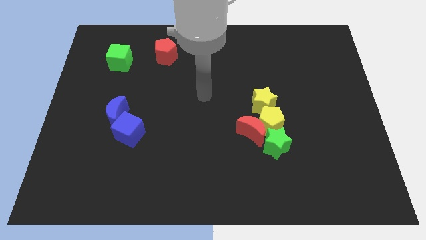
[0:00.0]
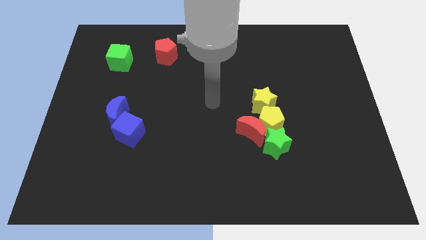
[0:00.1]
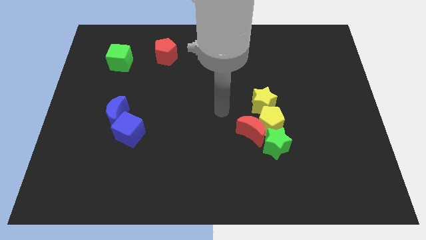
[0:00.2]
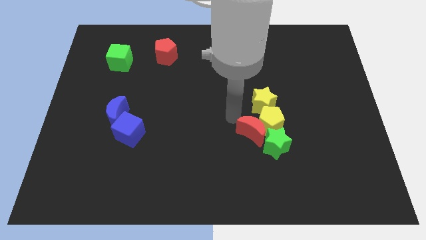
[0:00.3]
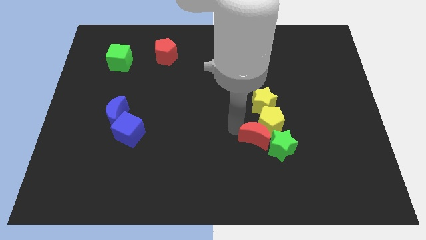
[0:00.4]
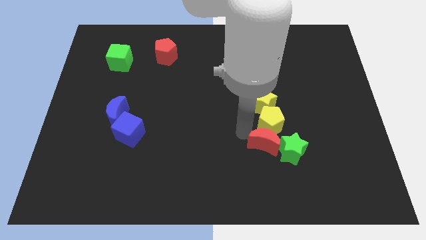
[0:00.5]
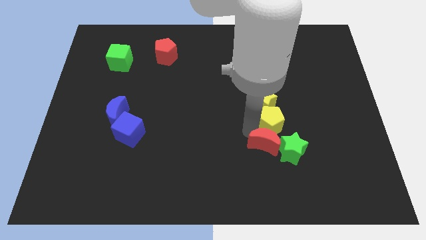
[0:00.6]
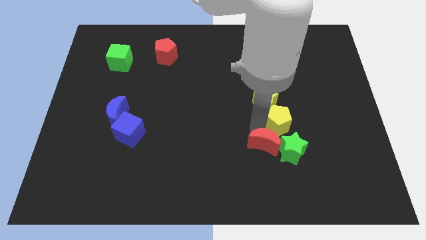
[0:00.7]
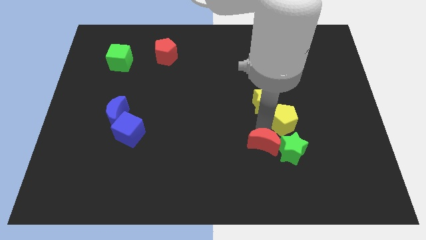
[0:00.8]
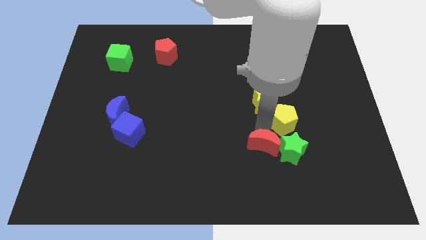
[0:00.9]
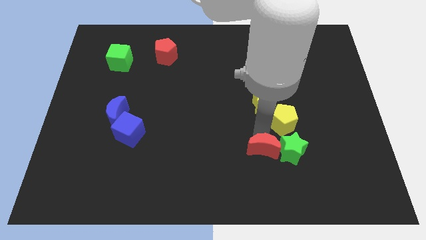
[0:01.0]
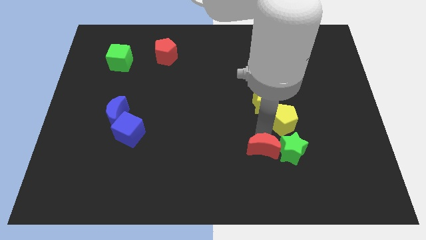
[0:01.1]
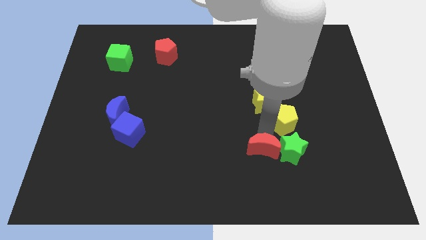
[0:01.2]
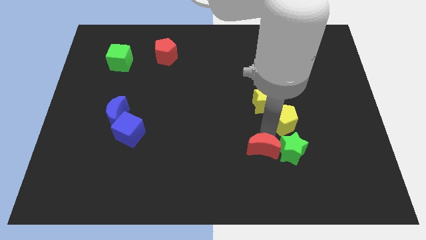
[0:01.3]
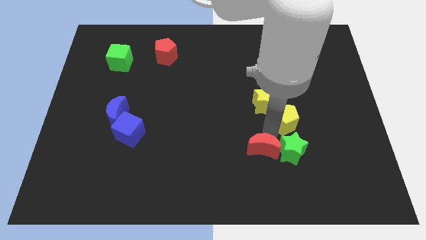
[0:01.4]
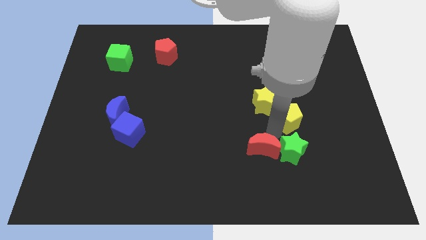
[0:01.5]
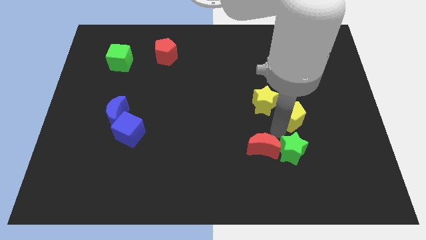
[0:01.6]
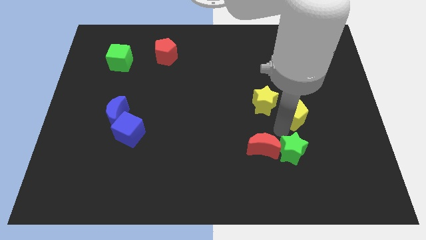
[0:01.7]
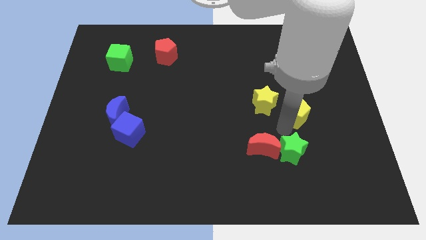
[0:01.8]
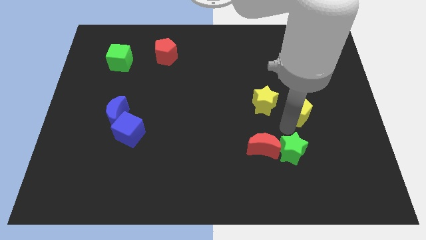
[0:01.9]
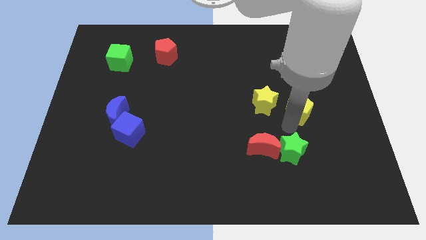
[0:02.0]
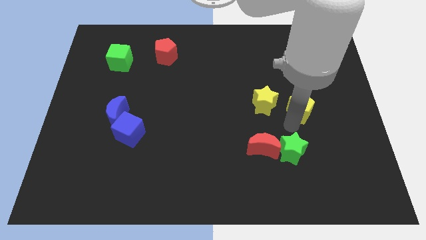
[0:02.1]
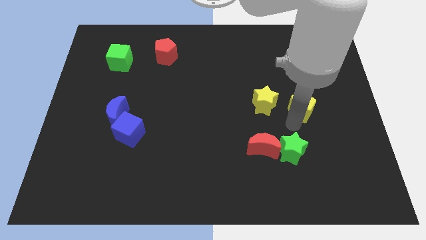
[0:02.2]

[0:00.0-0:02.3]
pull the yellow pentagon apart from the group of blocks

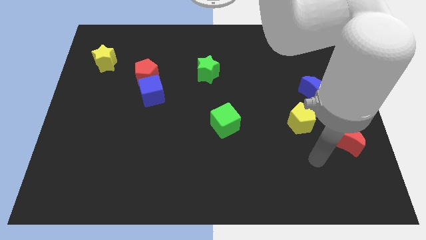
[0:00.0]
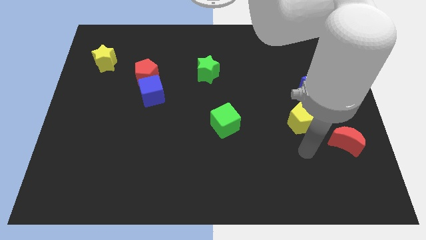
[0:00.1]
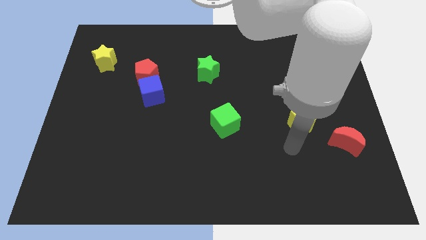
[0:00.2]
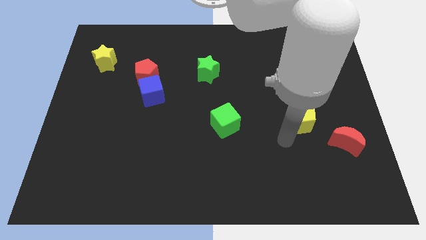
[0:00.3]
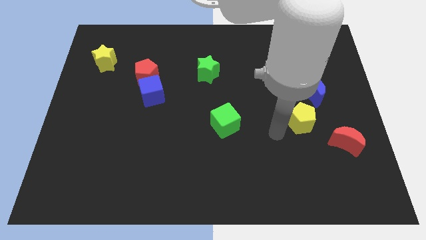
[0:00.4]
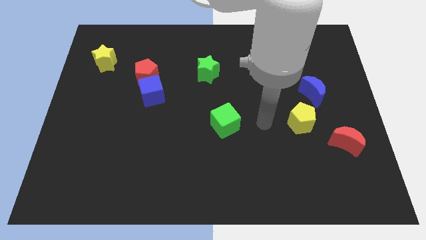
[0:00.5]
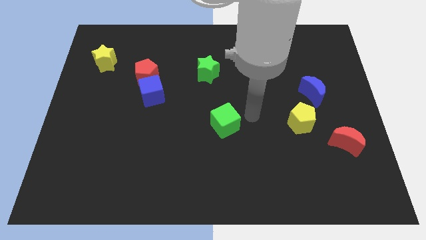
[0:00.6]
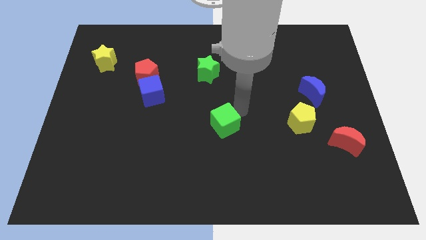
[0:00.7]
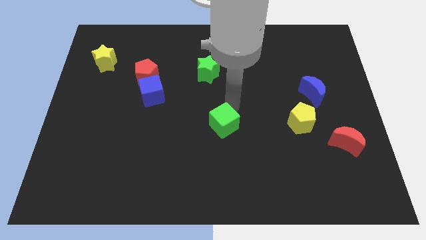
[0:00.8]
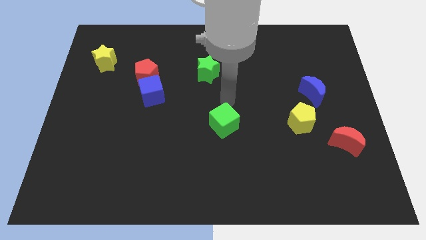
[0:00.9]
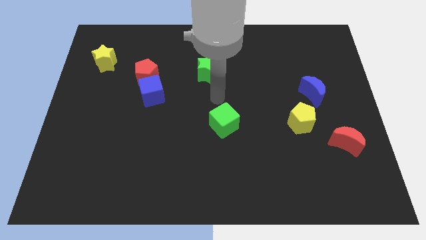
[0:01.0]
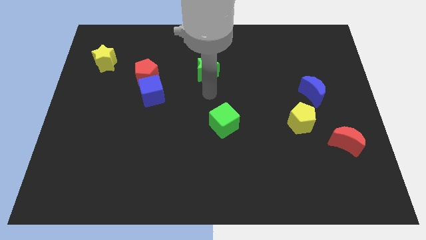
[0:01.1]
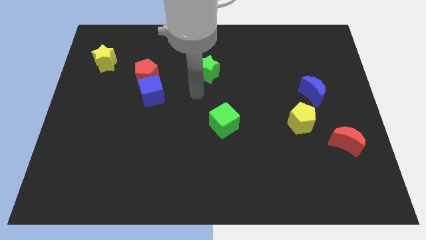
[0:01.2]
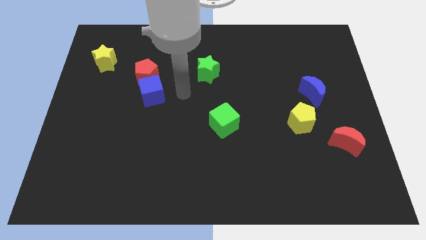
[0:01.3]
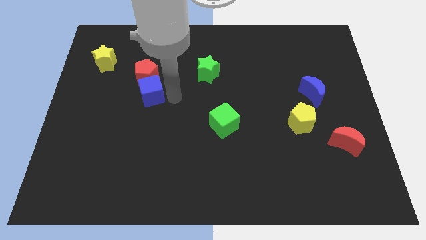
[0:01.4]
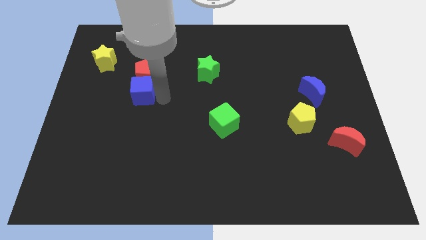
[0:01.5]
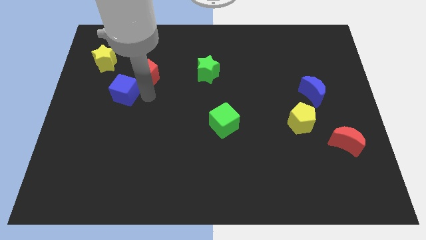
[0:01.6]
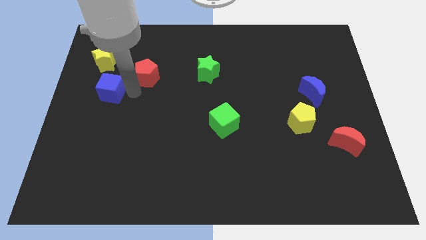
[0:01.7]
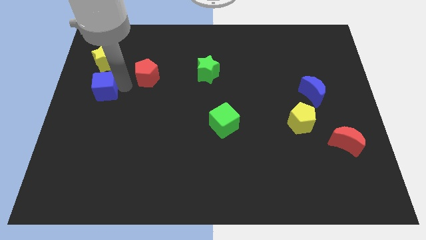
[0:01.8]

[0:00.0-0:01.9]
move the red pentagon away from the blue cube

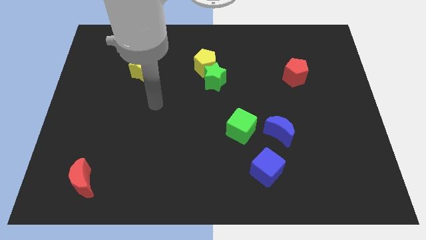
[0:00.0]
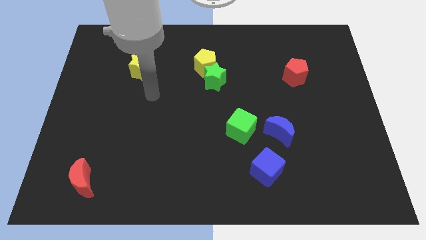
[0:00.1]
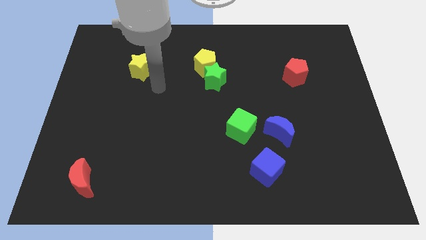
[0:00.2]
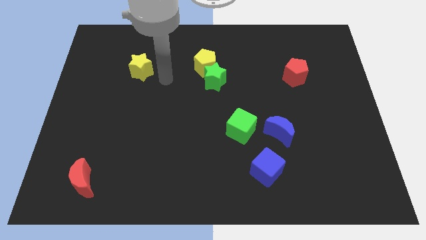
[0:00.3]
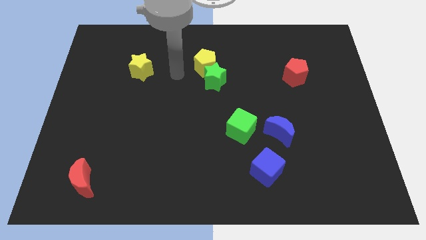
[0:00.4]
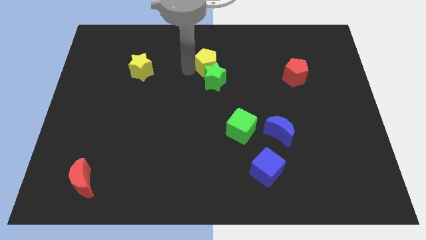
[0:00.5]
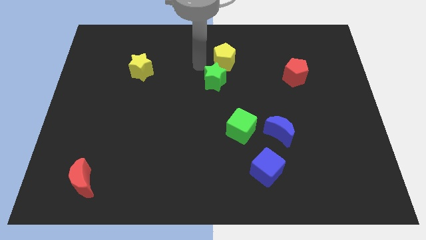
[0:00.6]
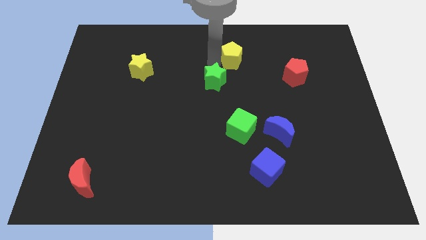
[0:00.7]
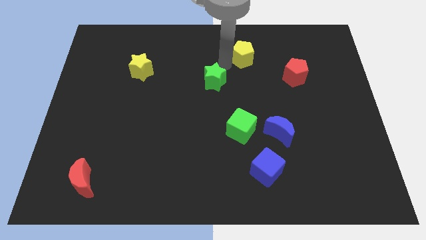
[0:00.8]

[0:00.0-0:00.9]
move the green star away from the yellow pentagon

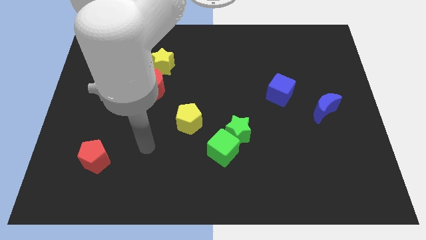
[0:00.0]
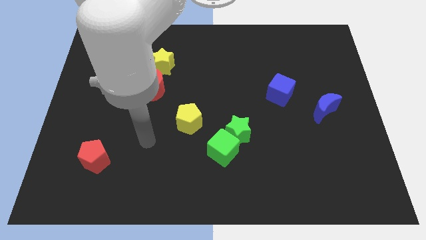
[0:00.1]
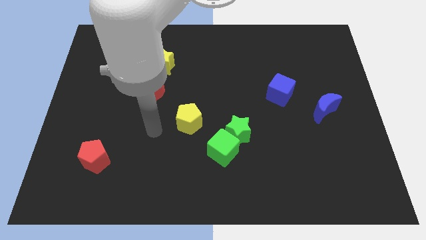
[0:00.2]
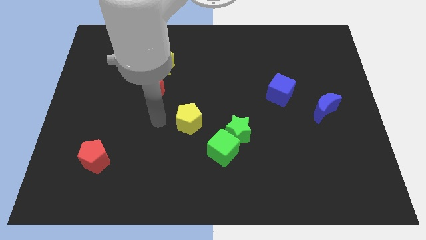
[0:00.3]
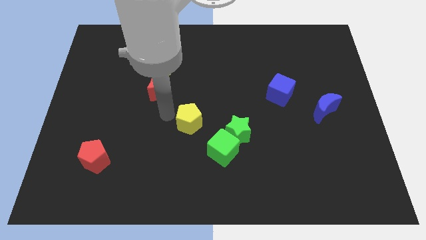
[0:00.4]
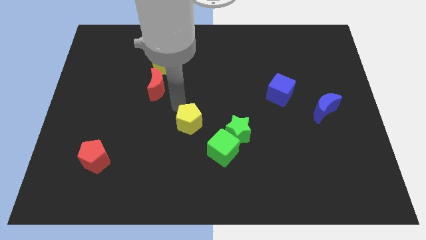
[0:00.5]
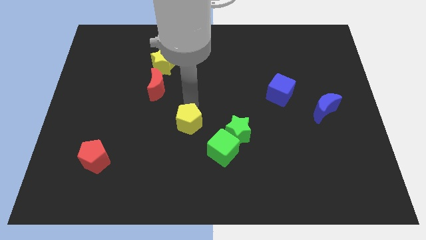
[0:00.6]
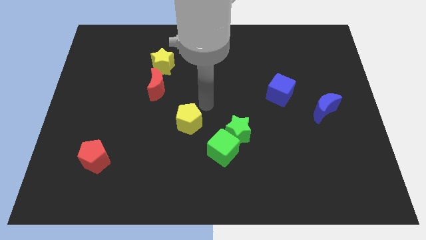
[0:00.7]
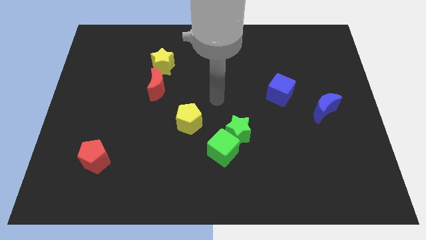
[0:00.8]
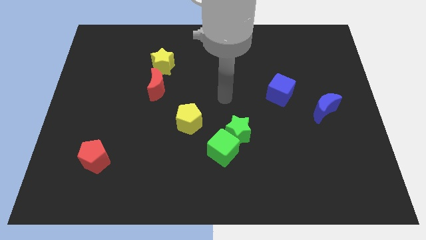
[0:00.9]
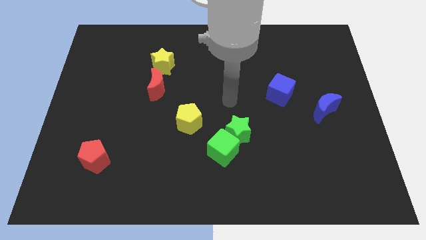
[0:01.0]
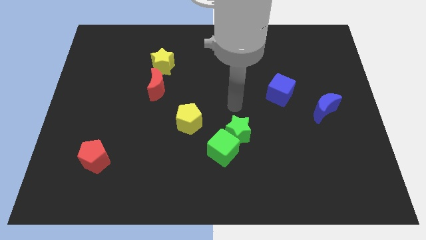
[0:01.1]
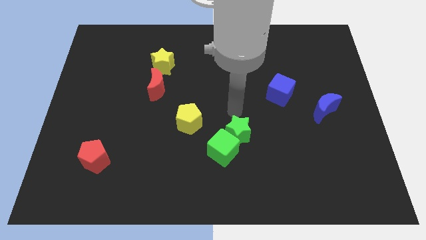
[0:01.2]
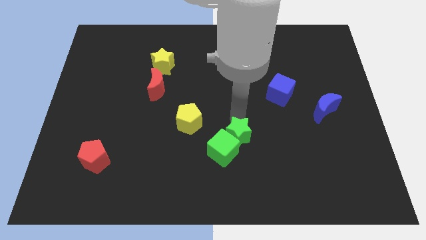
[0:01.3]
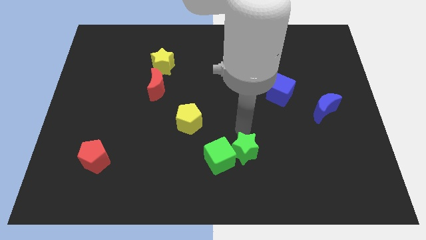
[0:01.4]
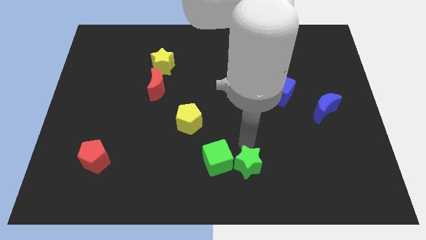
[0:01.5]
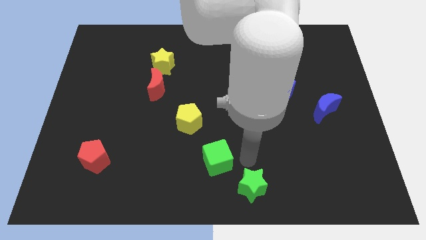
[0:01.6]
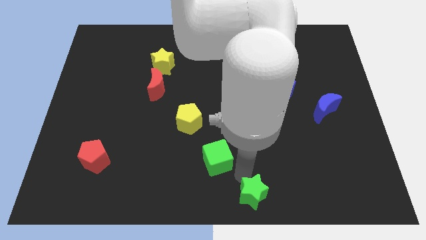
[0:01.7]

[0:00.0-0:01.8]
pull the green cube apart from the green star

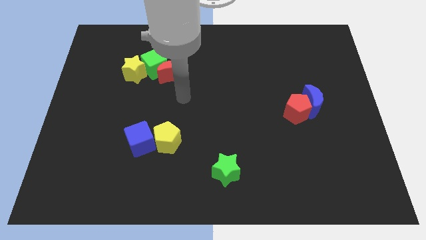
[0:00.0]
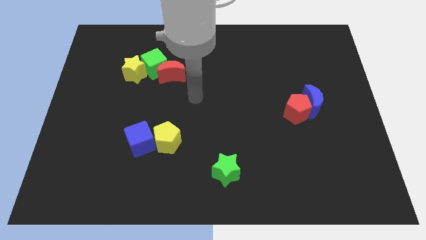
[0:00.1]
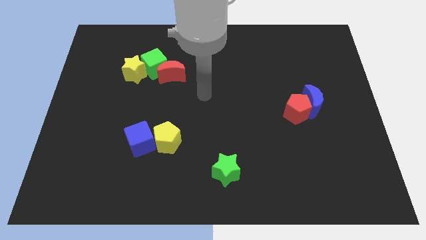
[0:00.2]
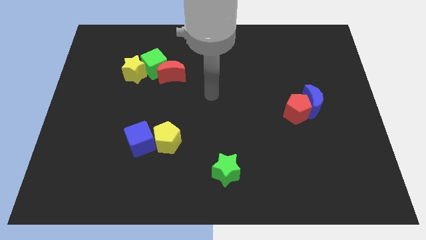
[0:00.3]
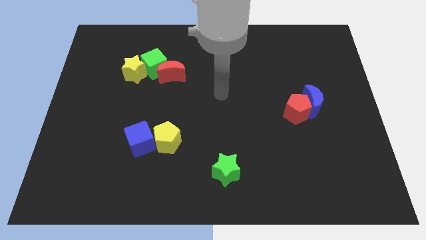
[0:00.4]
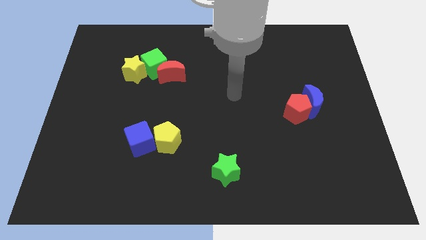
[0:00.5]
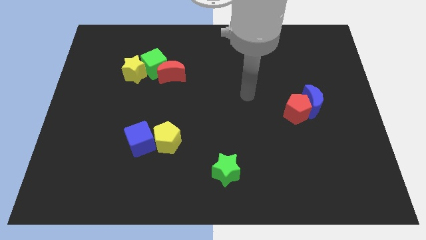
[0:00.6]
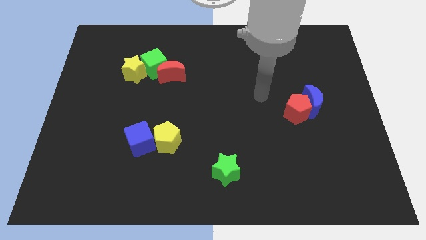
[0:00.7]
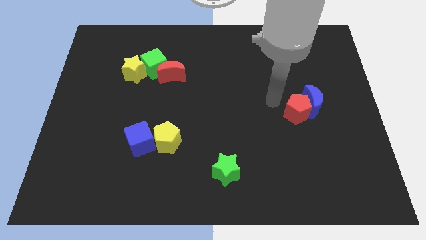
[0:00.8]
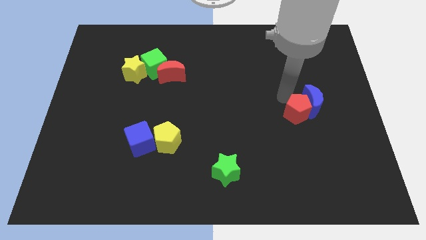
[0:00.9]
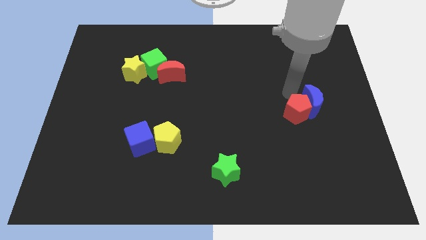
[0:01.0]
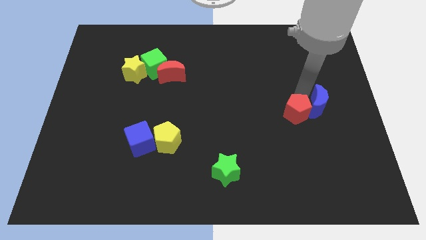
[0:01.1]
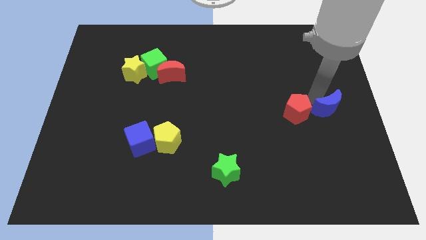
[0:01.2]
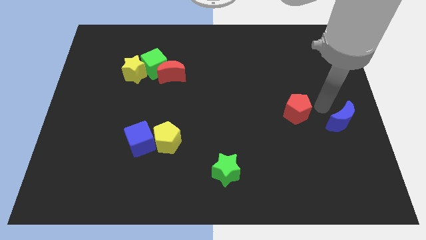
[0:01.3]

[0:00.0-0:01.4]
move the red pentagon away from the blue moon

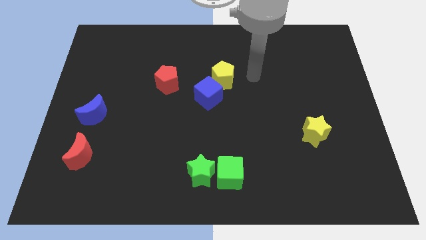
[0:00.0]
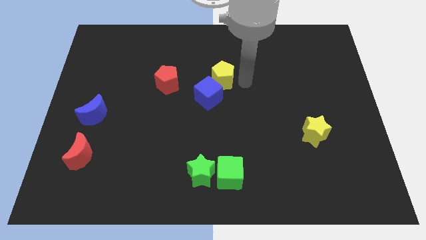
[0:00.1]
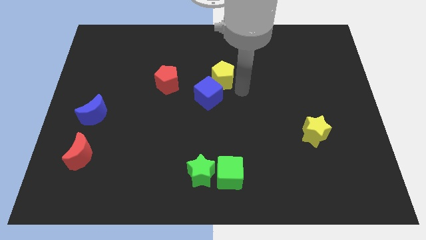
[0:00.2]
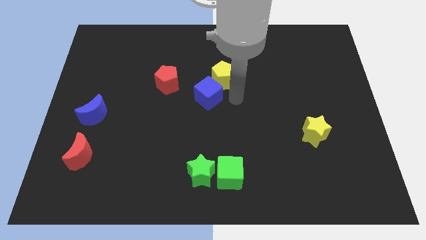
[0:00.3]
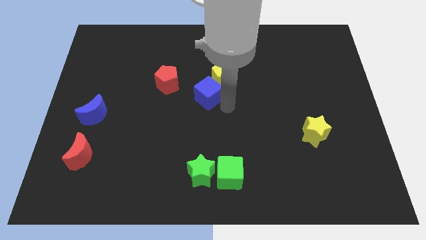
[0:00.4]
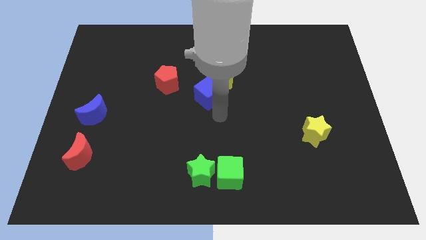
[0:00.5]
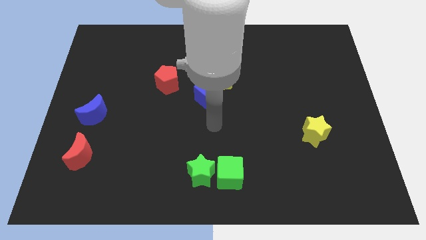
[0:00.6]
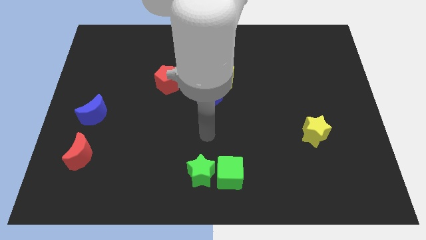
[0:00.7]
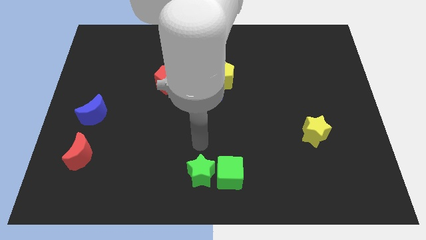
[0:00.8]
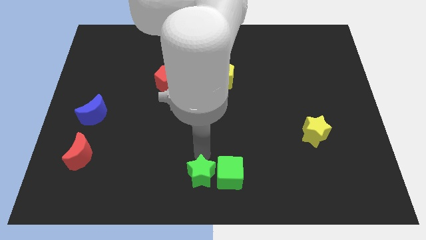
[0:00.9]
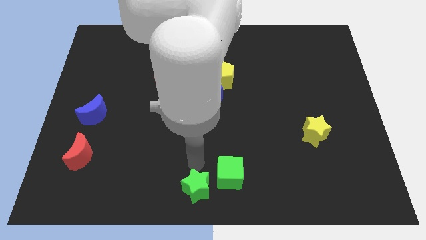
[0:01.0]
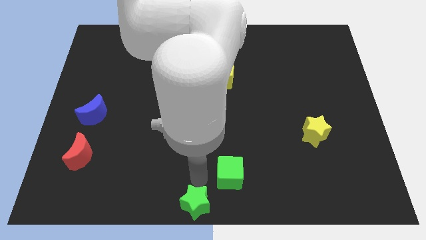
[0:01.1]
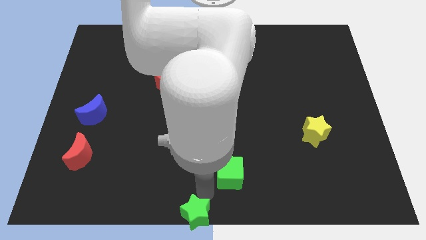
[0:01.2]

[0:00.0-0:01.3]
move the green cube away from the green star
